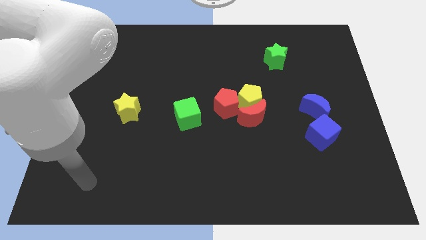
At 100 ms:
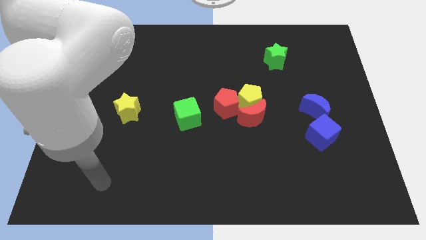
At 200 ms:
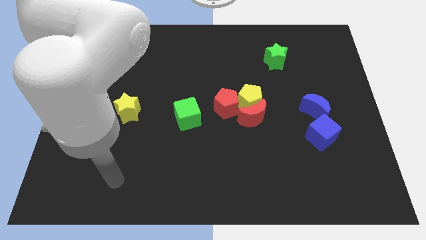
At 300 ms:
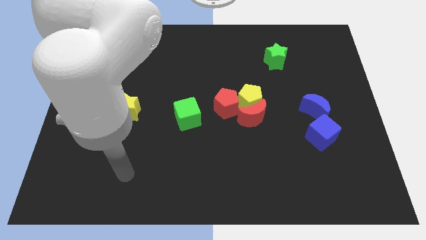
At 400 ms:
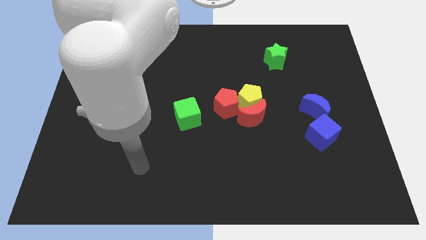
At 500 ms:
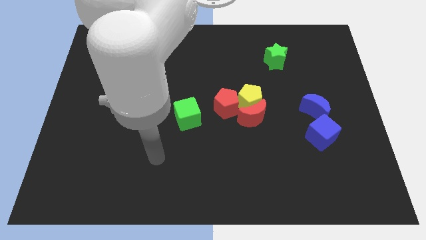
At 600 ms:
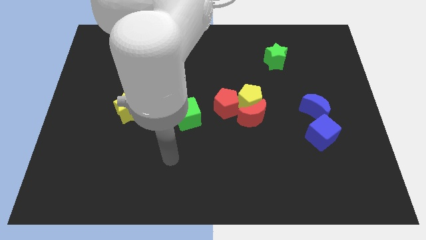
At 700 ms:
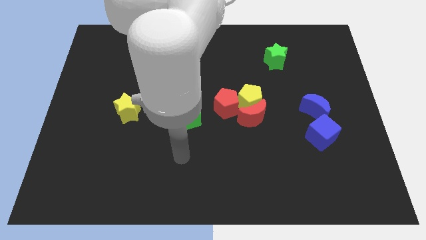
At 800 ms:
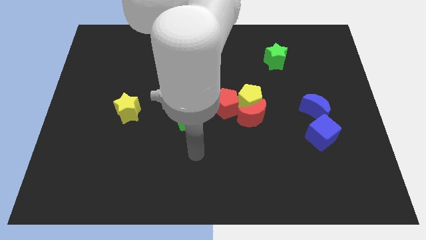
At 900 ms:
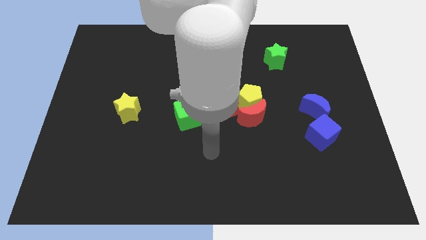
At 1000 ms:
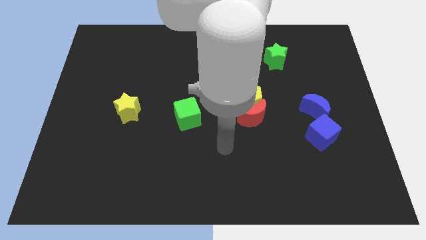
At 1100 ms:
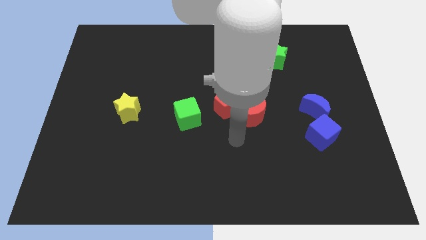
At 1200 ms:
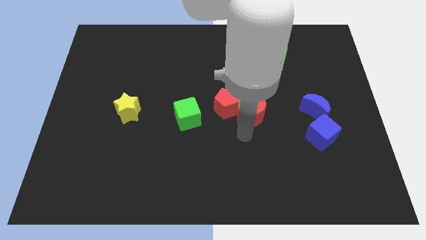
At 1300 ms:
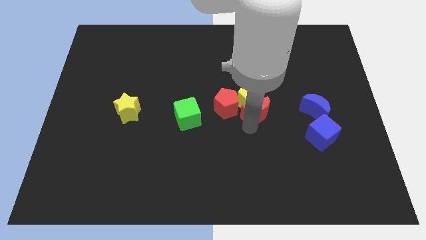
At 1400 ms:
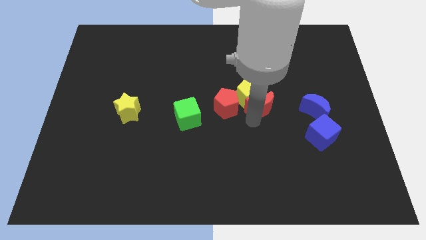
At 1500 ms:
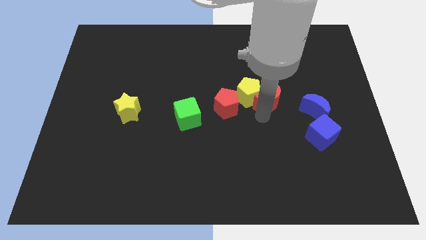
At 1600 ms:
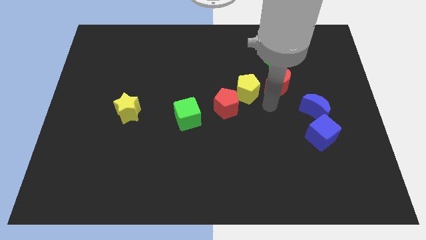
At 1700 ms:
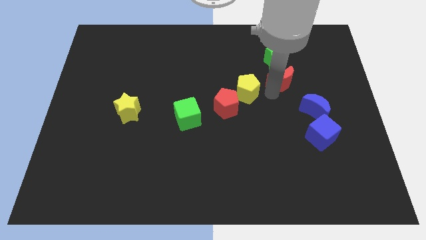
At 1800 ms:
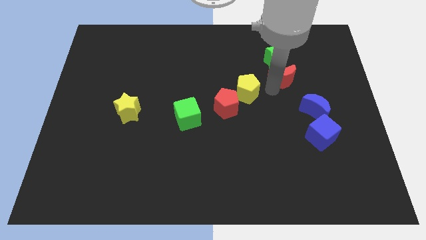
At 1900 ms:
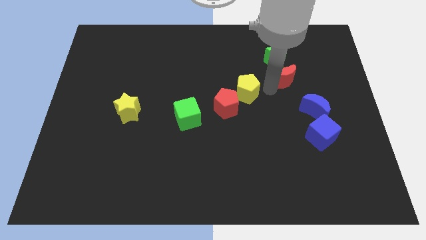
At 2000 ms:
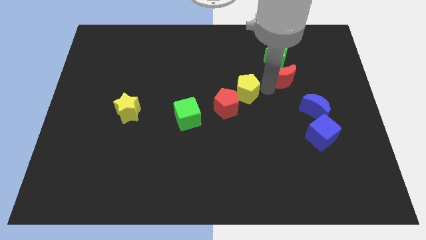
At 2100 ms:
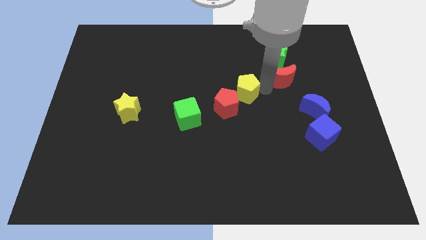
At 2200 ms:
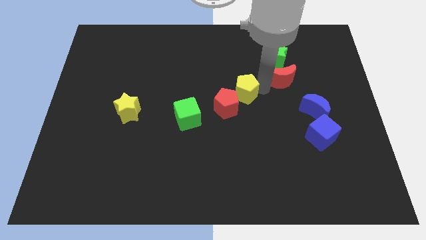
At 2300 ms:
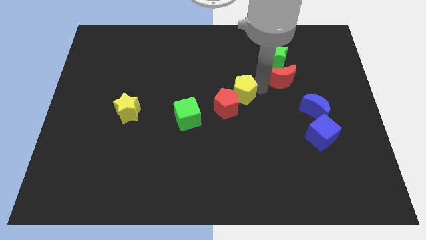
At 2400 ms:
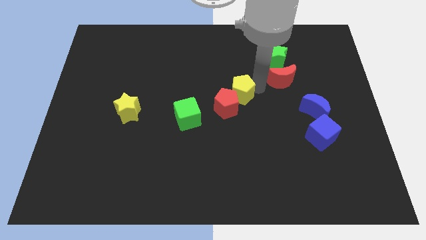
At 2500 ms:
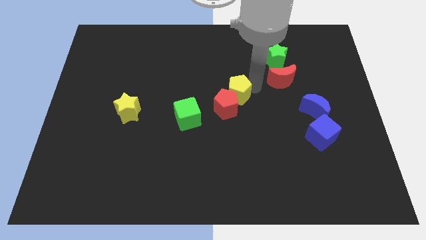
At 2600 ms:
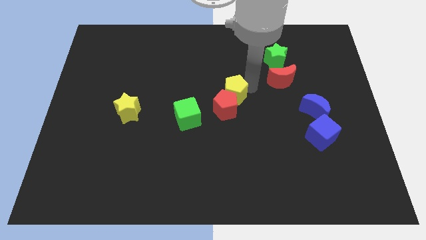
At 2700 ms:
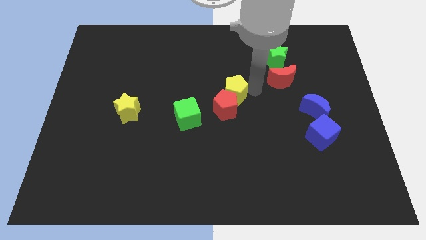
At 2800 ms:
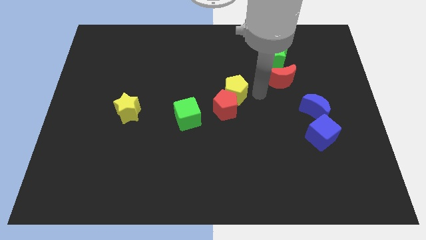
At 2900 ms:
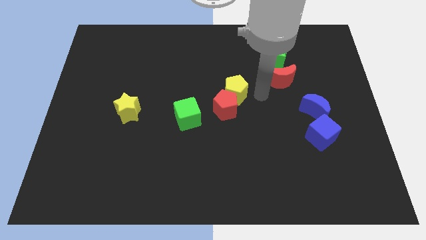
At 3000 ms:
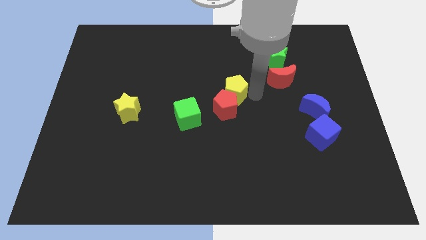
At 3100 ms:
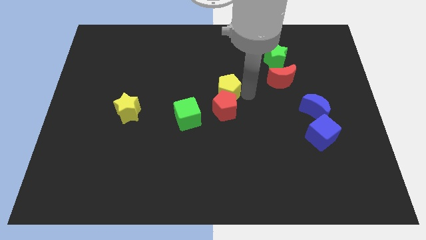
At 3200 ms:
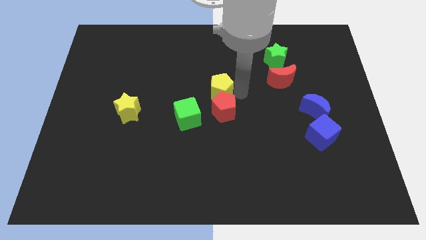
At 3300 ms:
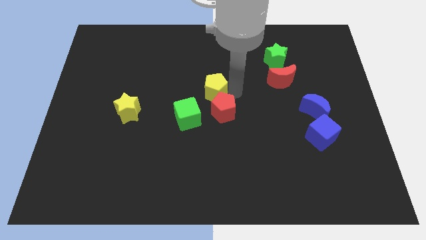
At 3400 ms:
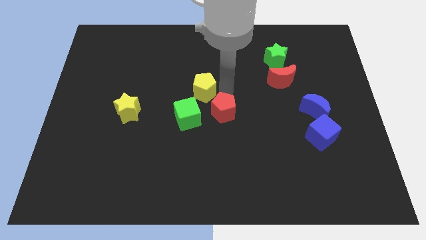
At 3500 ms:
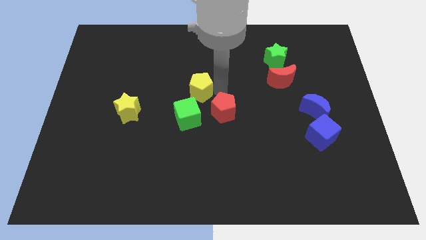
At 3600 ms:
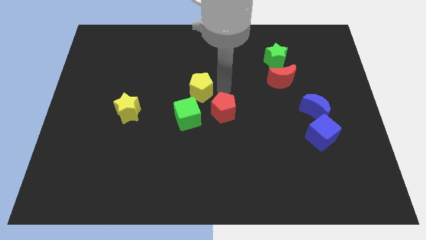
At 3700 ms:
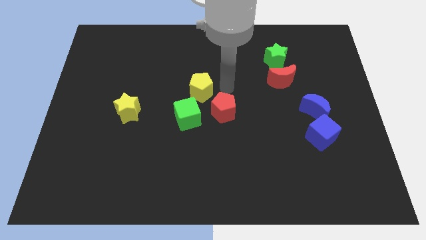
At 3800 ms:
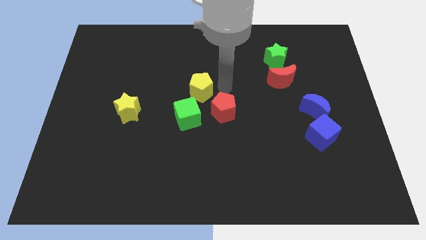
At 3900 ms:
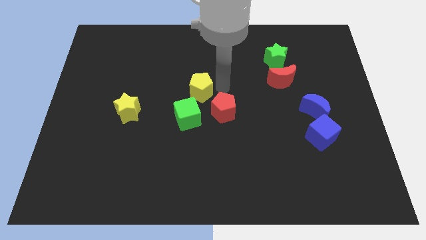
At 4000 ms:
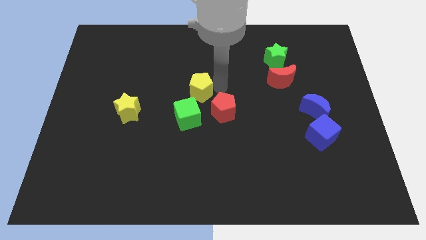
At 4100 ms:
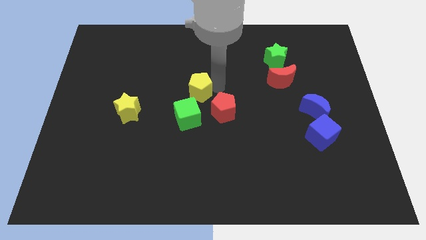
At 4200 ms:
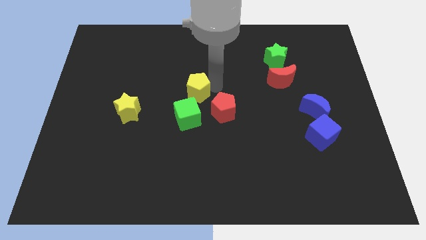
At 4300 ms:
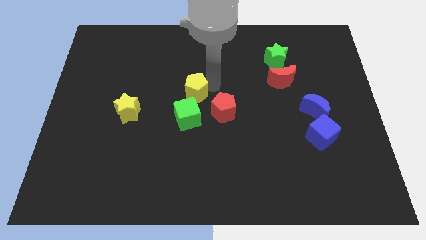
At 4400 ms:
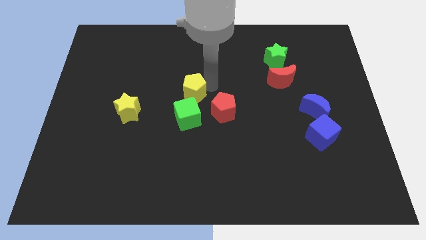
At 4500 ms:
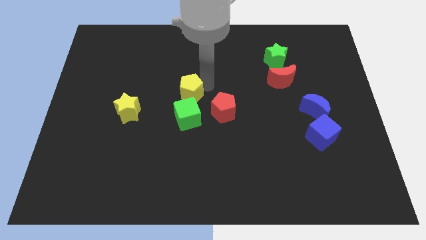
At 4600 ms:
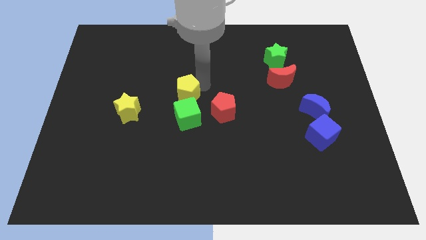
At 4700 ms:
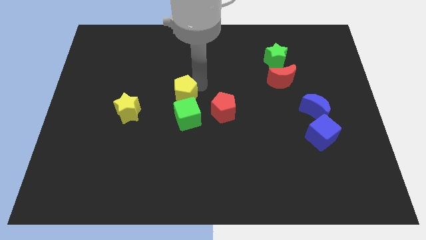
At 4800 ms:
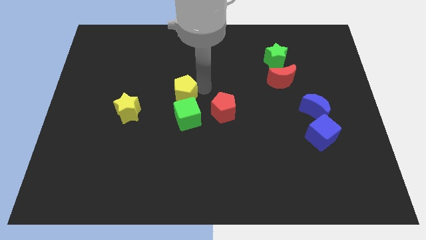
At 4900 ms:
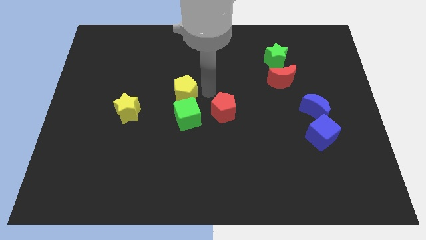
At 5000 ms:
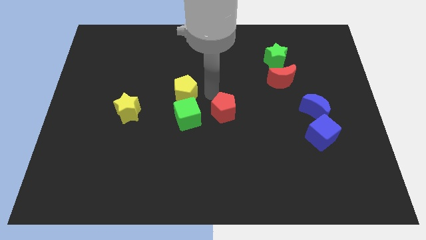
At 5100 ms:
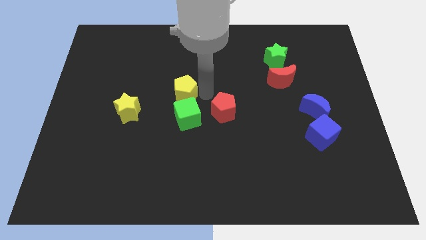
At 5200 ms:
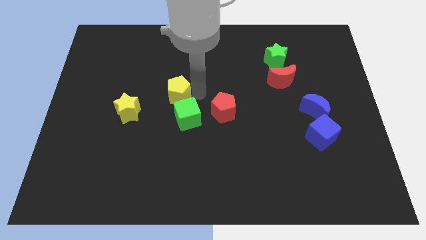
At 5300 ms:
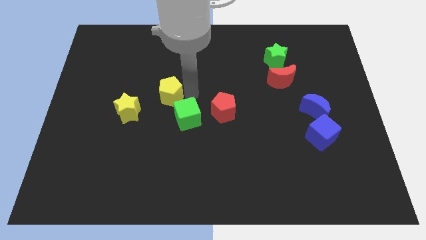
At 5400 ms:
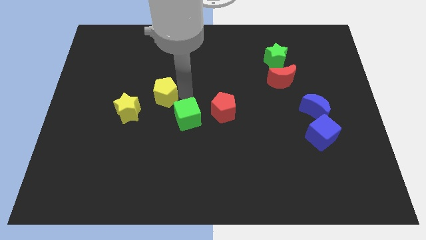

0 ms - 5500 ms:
slide the yellow pentagon to the left

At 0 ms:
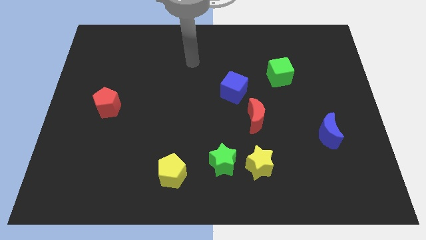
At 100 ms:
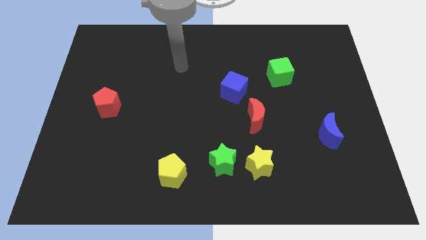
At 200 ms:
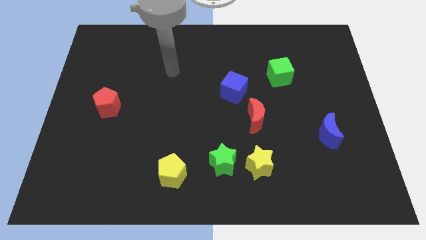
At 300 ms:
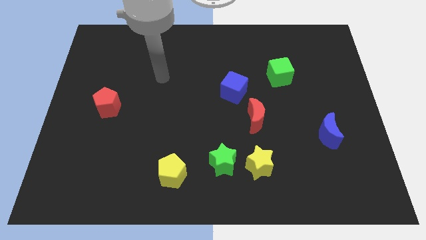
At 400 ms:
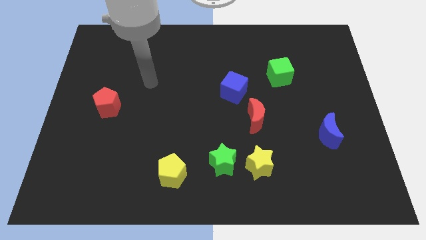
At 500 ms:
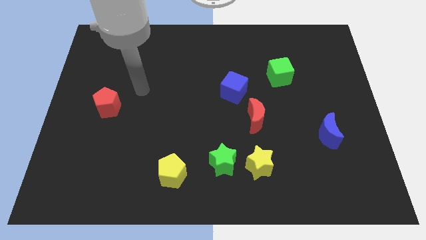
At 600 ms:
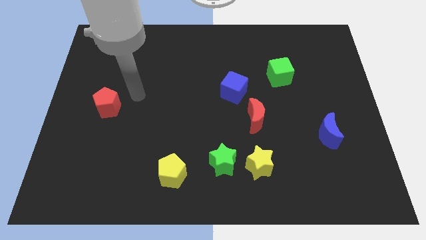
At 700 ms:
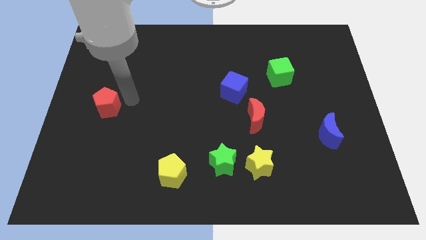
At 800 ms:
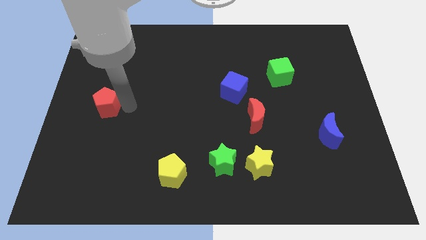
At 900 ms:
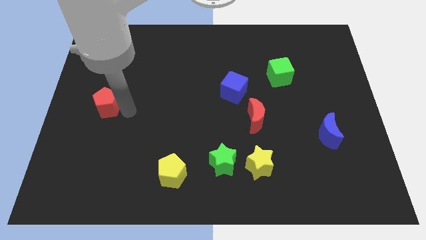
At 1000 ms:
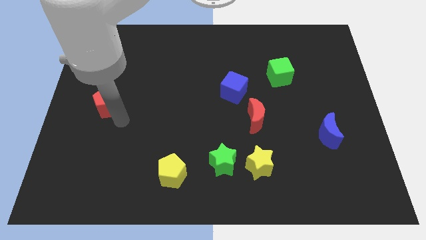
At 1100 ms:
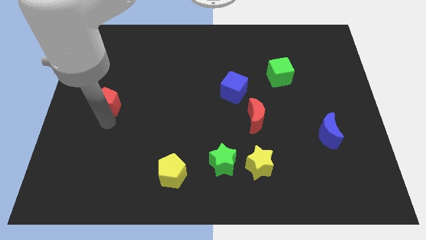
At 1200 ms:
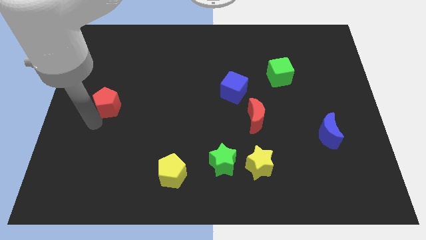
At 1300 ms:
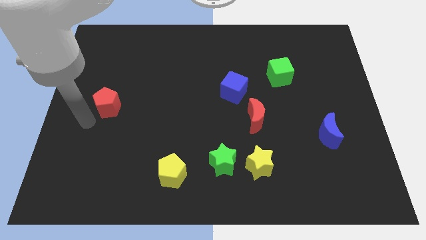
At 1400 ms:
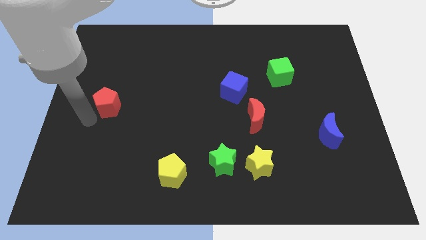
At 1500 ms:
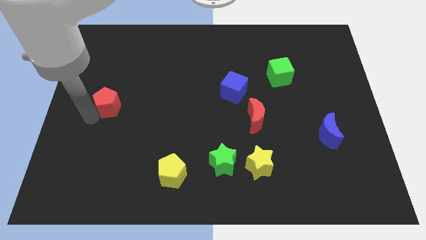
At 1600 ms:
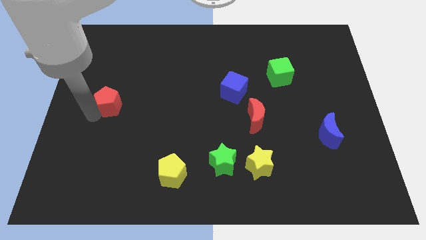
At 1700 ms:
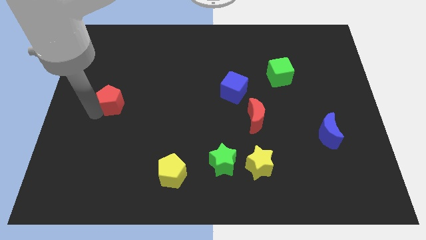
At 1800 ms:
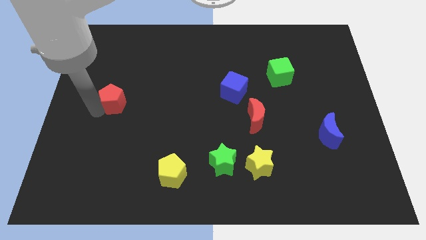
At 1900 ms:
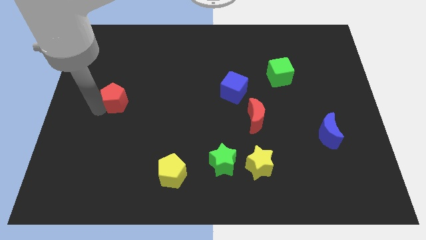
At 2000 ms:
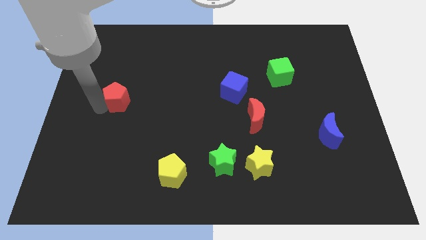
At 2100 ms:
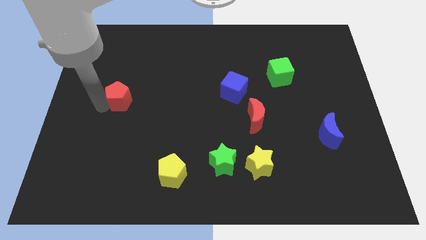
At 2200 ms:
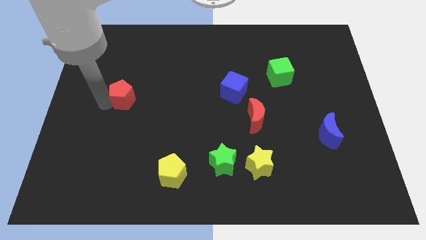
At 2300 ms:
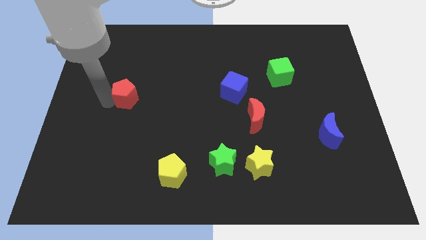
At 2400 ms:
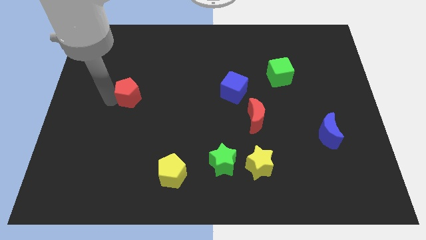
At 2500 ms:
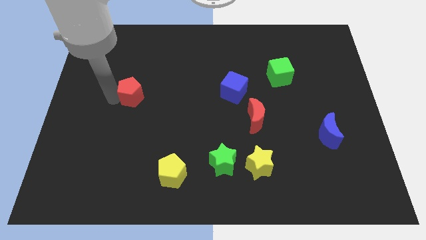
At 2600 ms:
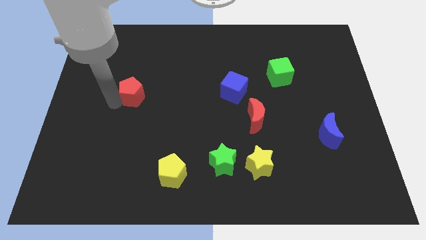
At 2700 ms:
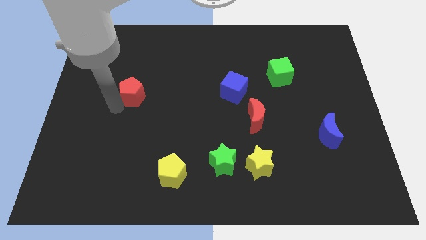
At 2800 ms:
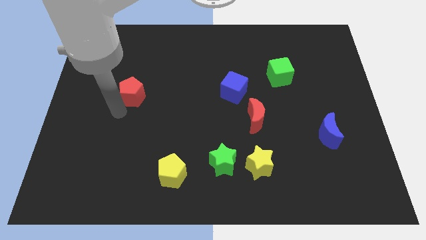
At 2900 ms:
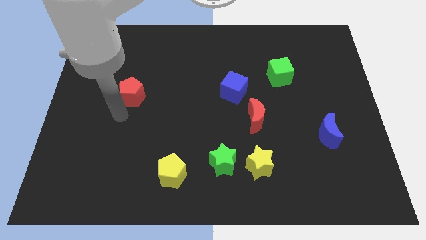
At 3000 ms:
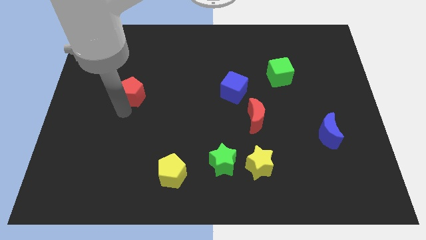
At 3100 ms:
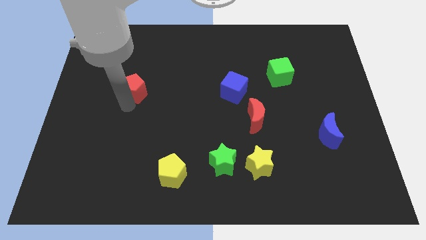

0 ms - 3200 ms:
slightly push the red pentagon diagonally up and right
